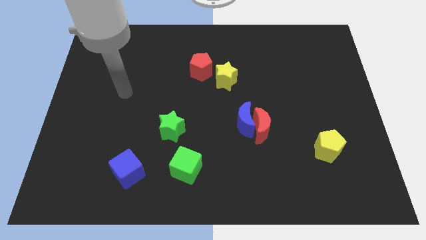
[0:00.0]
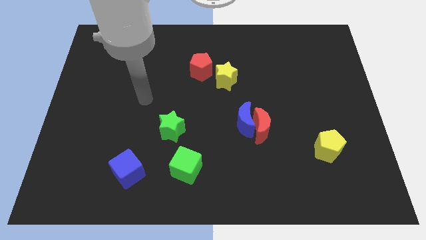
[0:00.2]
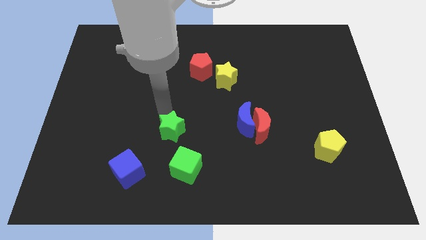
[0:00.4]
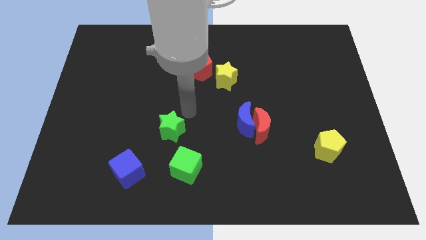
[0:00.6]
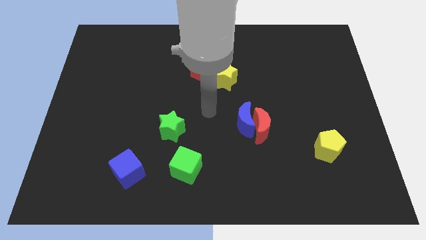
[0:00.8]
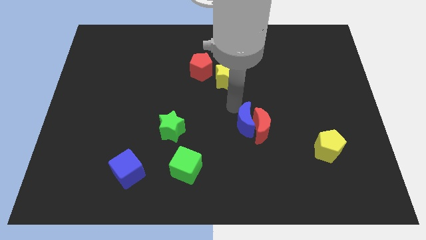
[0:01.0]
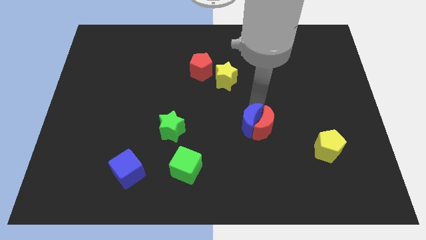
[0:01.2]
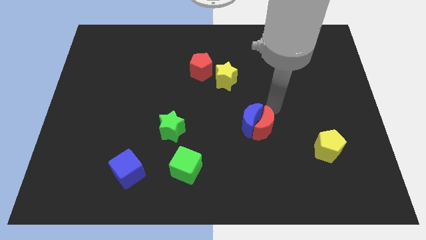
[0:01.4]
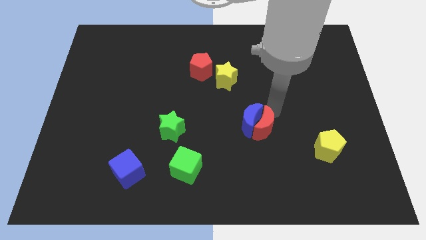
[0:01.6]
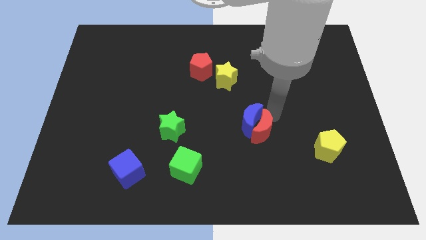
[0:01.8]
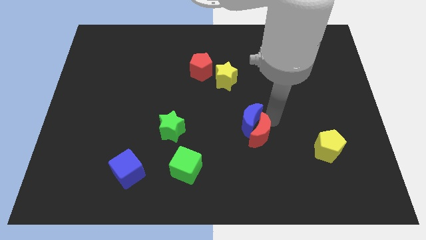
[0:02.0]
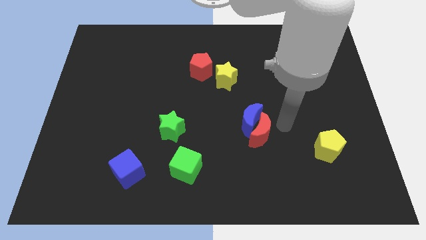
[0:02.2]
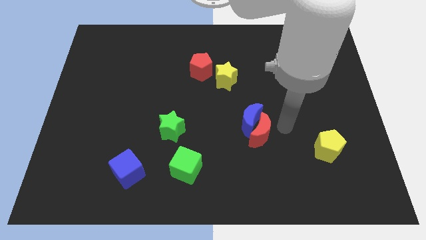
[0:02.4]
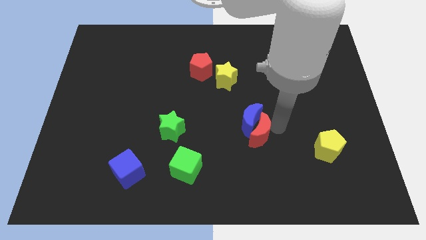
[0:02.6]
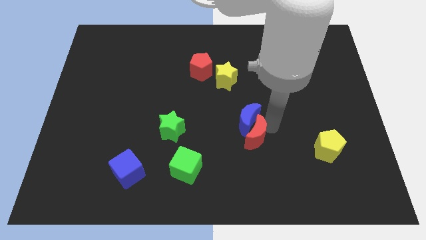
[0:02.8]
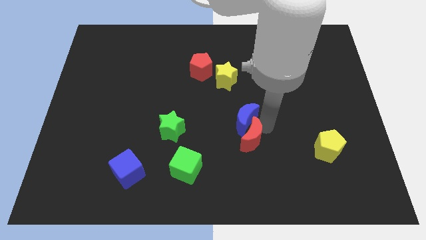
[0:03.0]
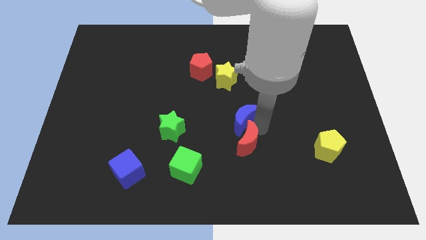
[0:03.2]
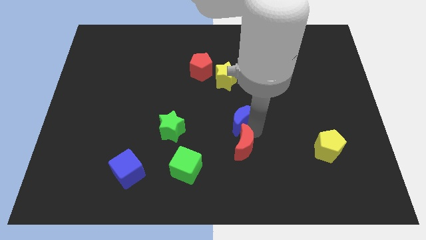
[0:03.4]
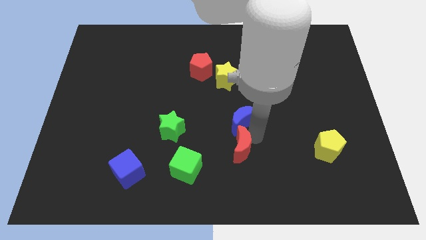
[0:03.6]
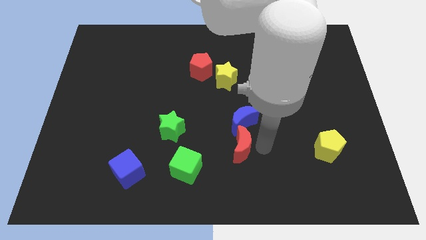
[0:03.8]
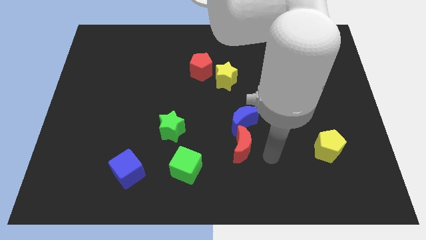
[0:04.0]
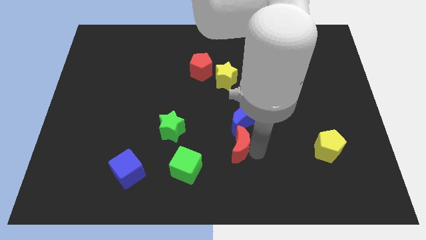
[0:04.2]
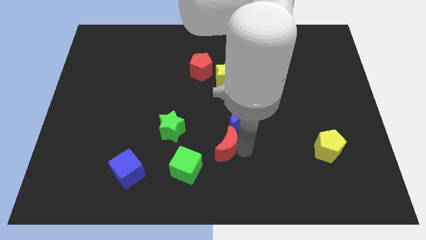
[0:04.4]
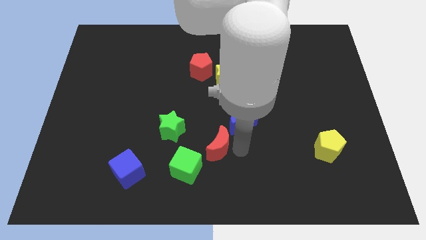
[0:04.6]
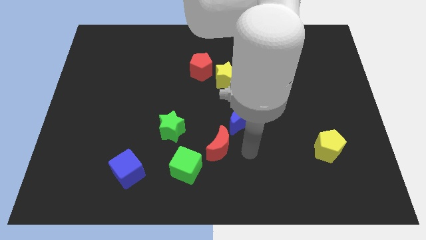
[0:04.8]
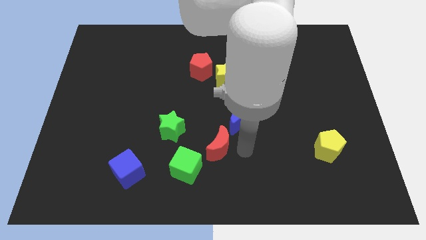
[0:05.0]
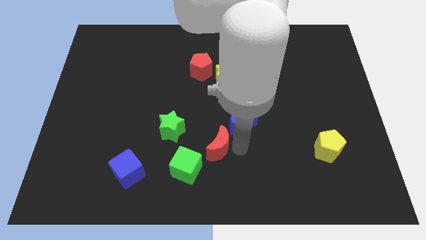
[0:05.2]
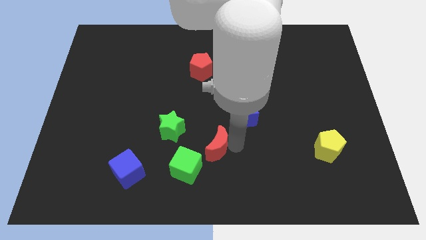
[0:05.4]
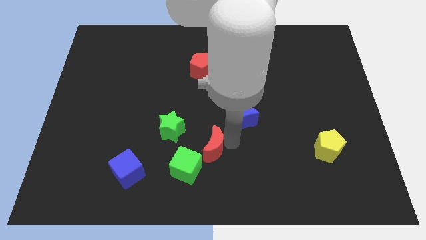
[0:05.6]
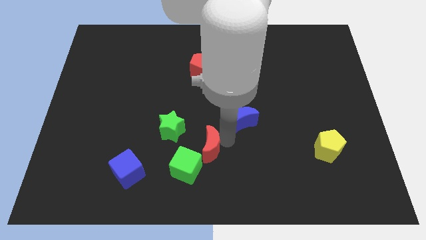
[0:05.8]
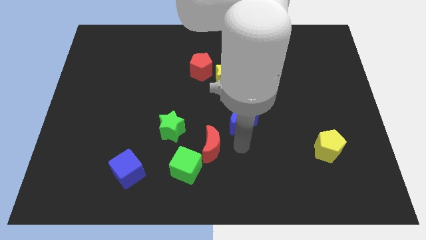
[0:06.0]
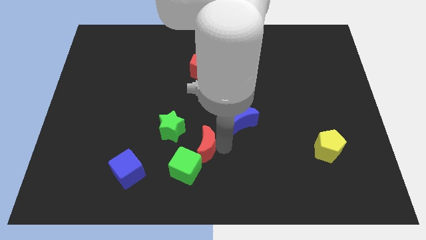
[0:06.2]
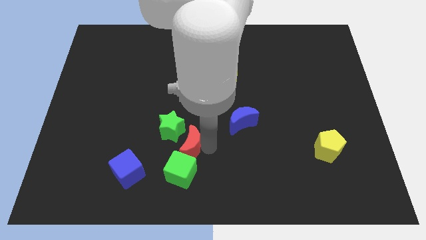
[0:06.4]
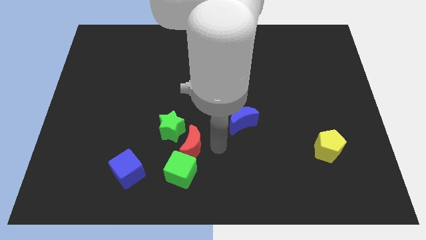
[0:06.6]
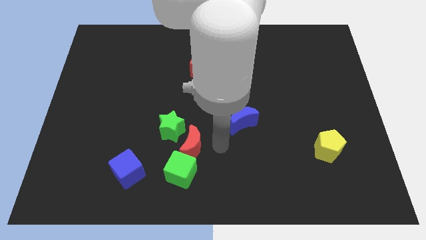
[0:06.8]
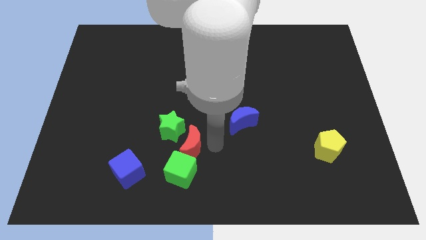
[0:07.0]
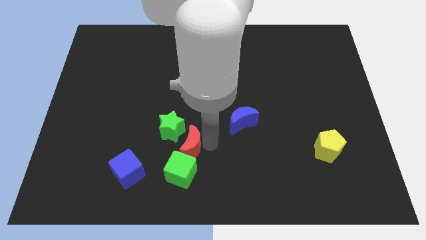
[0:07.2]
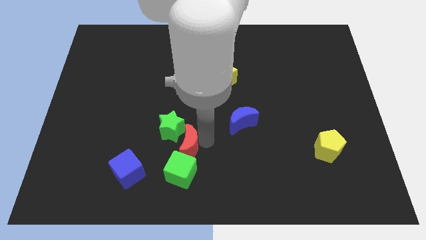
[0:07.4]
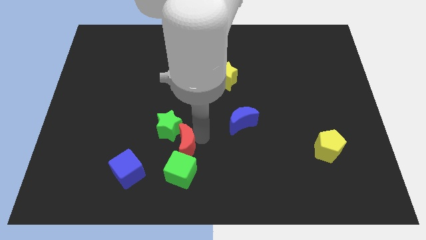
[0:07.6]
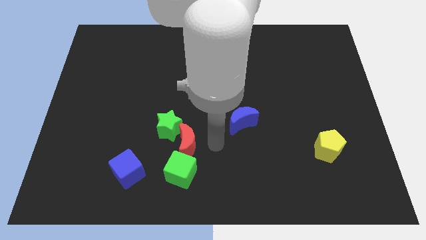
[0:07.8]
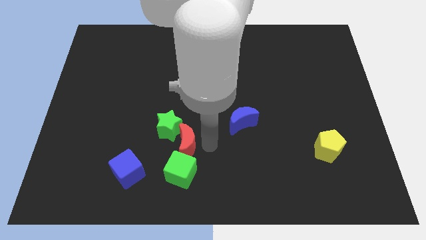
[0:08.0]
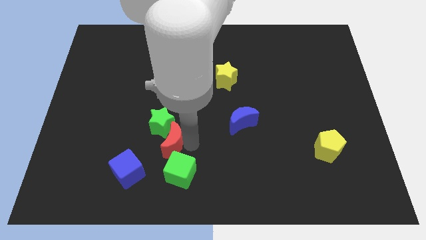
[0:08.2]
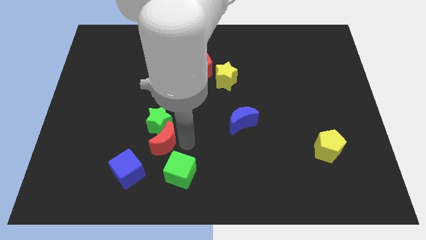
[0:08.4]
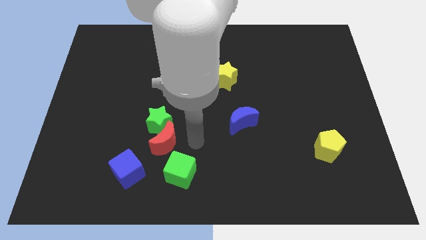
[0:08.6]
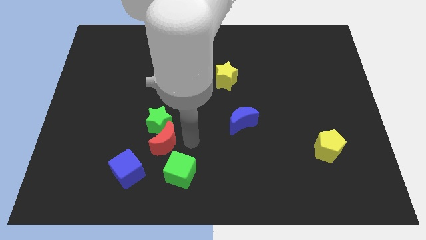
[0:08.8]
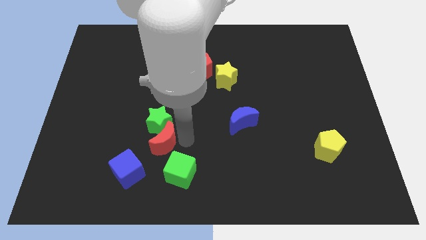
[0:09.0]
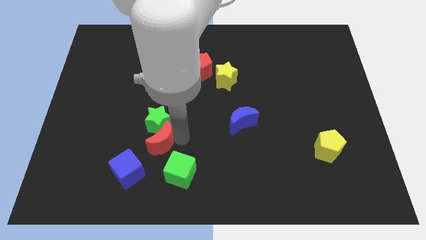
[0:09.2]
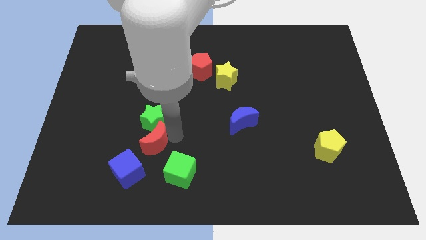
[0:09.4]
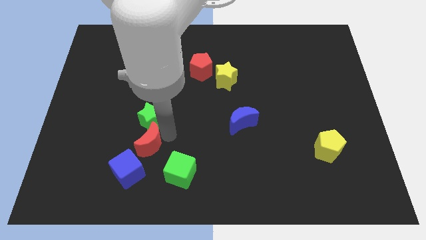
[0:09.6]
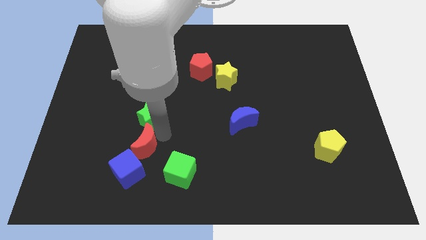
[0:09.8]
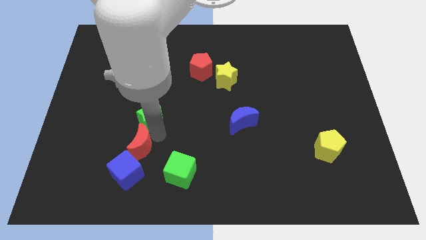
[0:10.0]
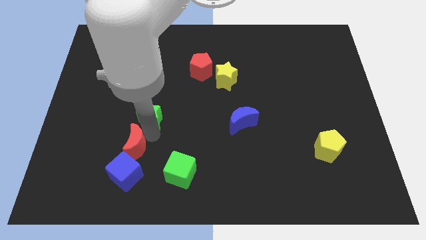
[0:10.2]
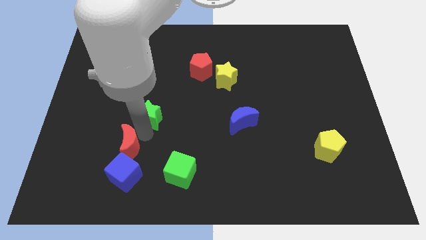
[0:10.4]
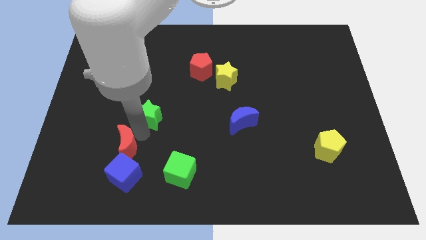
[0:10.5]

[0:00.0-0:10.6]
put the red moon to the top left side of the blue cube

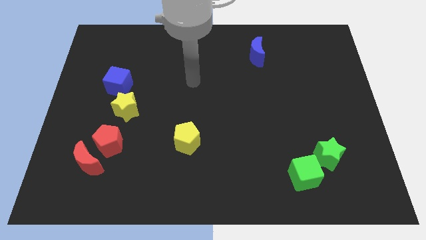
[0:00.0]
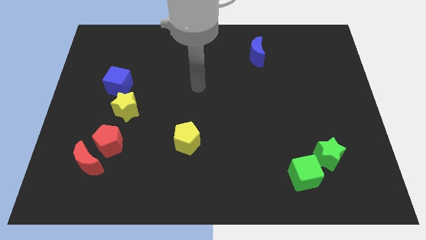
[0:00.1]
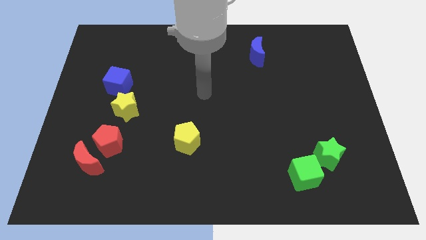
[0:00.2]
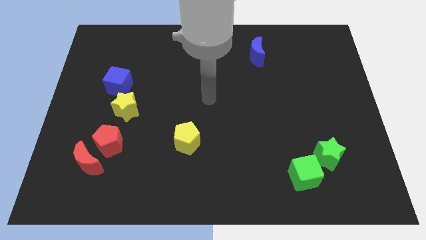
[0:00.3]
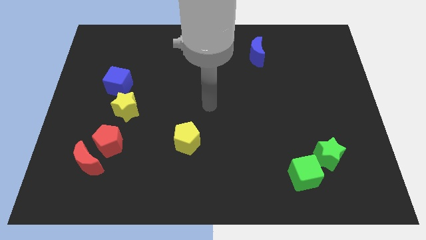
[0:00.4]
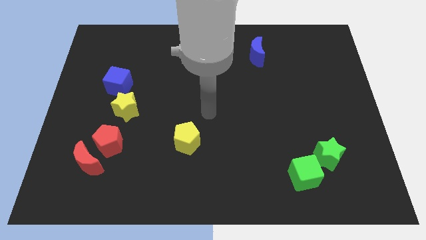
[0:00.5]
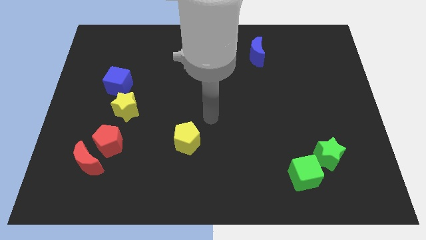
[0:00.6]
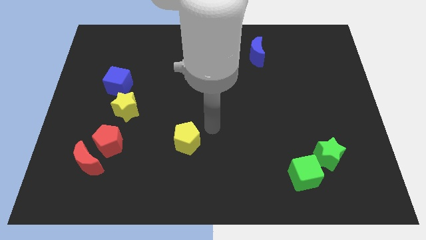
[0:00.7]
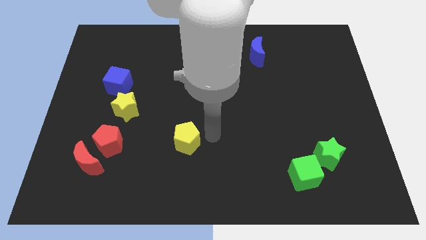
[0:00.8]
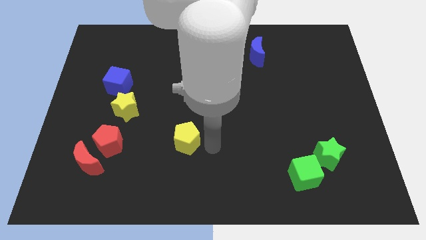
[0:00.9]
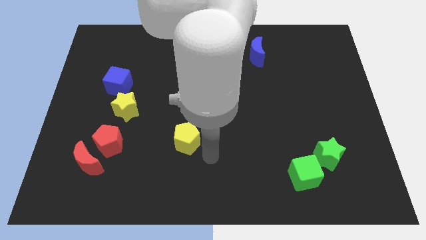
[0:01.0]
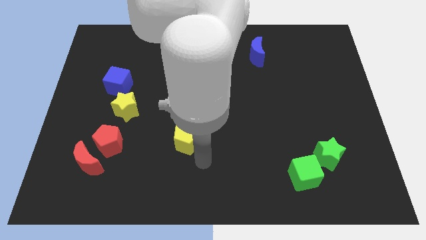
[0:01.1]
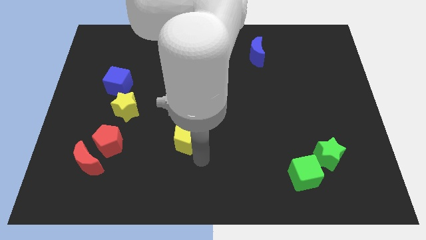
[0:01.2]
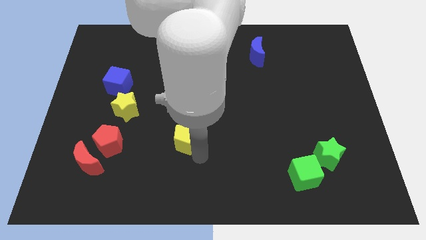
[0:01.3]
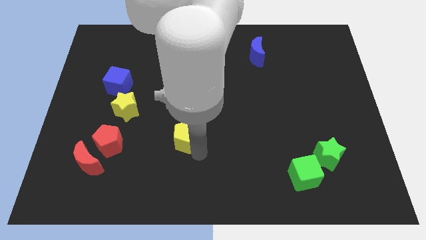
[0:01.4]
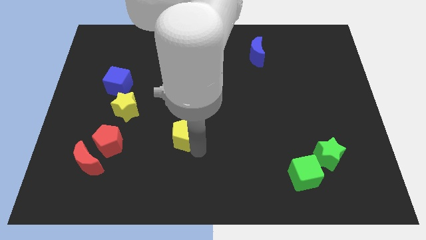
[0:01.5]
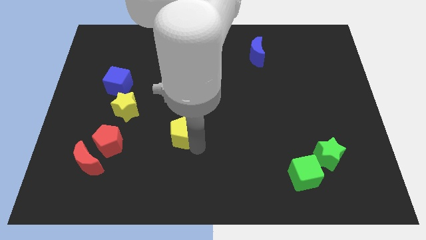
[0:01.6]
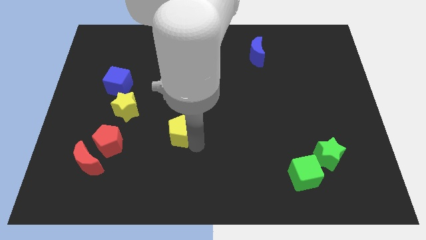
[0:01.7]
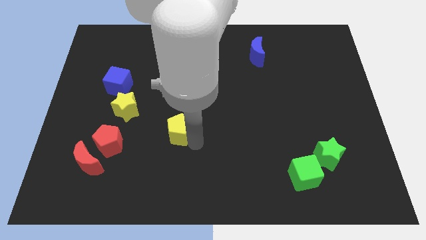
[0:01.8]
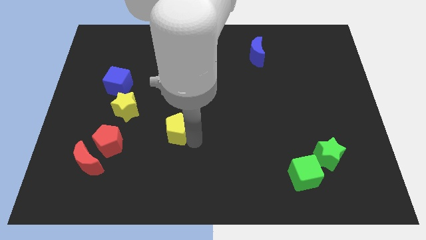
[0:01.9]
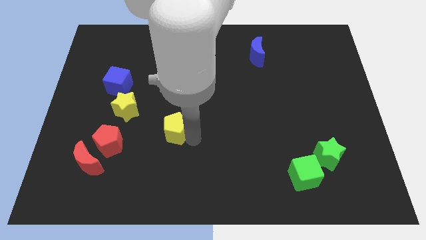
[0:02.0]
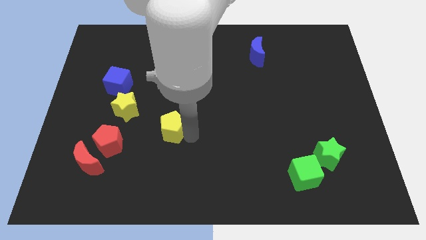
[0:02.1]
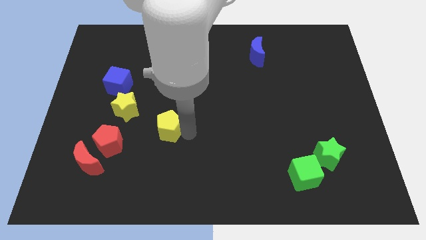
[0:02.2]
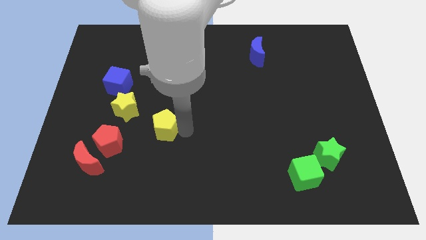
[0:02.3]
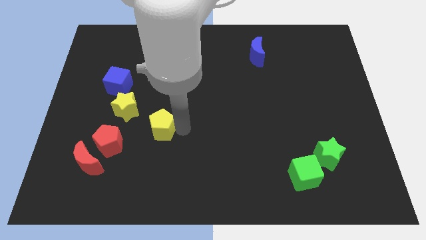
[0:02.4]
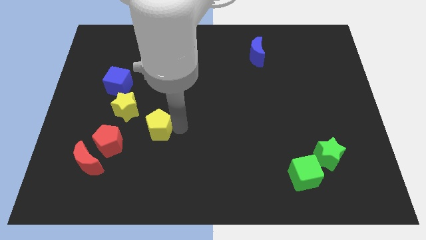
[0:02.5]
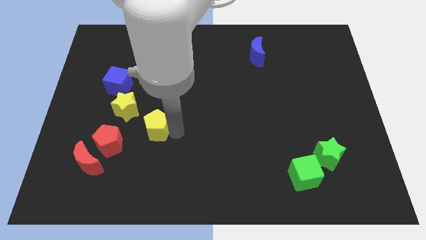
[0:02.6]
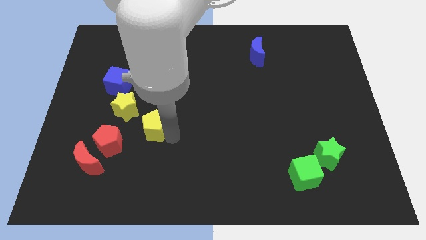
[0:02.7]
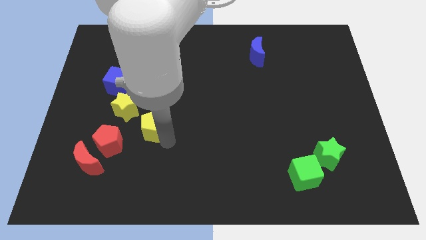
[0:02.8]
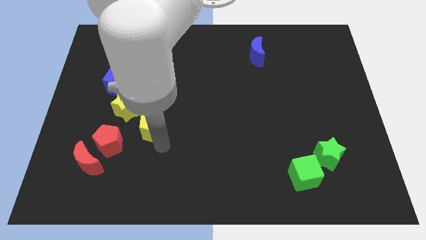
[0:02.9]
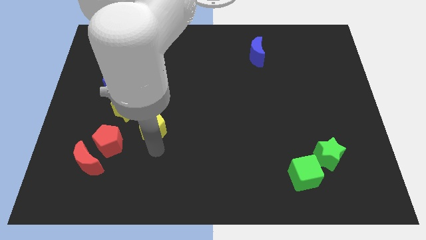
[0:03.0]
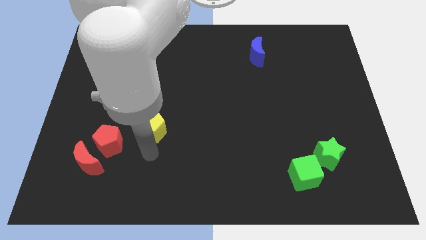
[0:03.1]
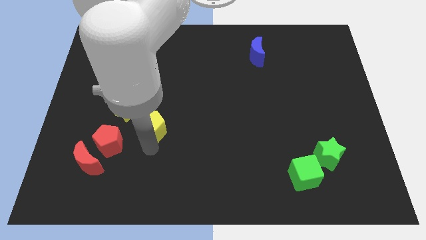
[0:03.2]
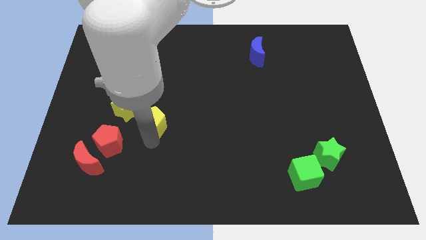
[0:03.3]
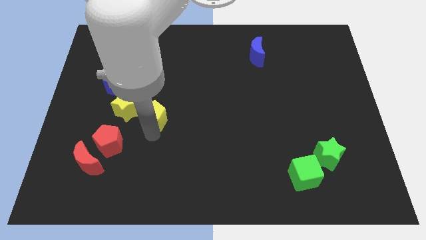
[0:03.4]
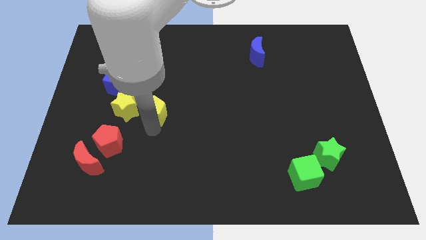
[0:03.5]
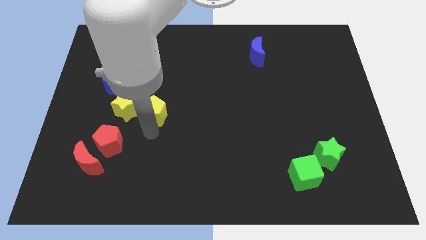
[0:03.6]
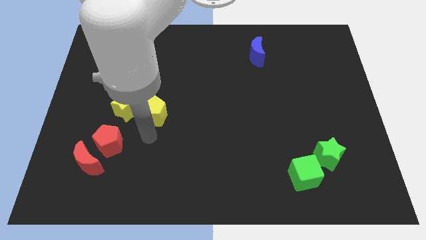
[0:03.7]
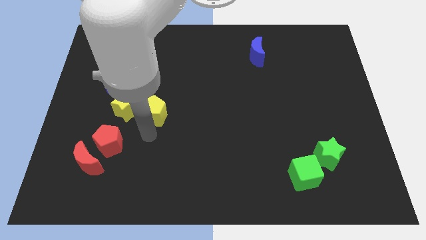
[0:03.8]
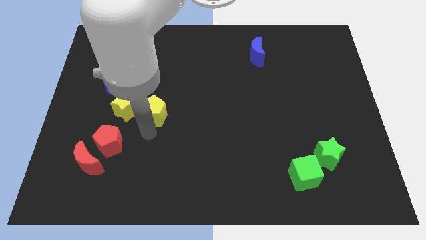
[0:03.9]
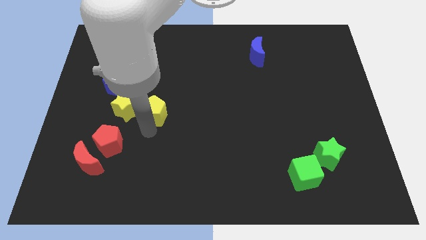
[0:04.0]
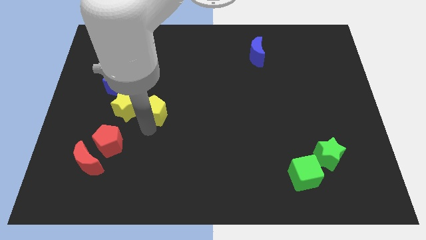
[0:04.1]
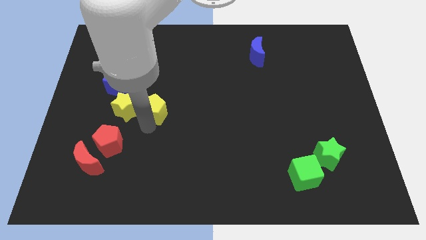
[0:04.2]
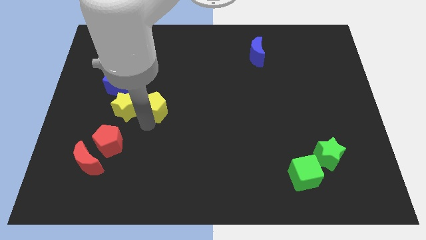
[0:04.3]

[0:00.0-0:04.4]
slide the yellow pentagon to the top right of the yellow star
